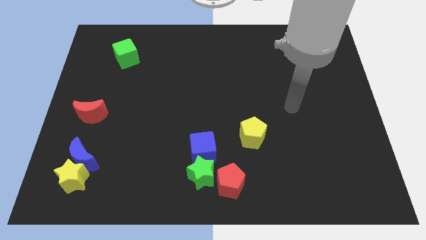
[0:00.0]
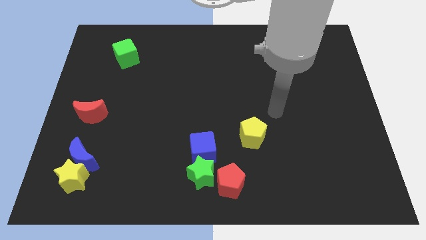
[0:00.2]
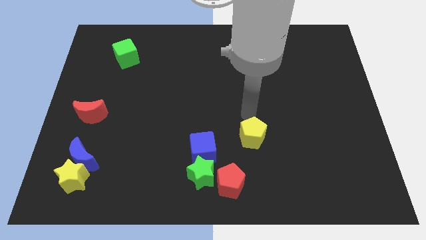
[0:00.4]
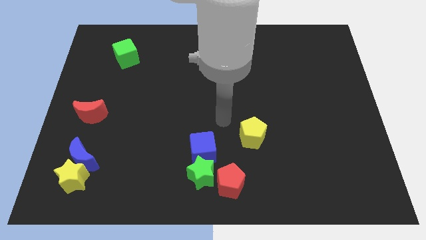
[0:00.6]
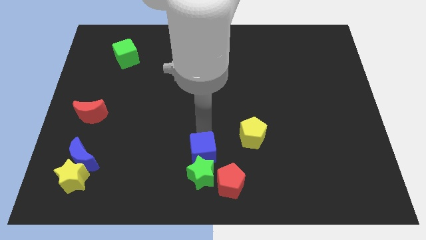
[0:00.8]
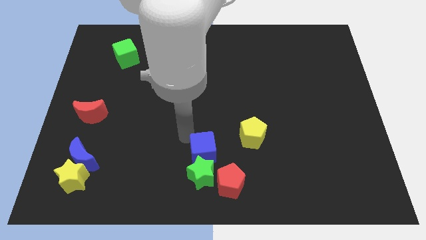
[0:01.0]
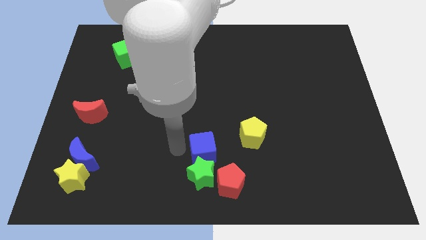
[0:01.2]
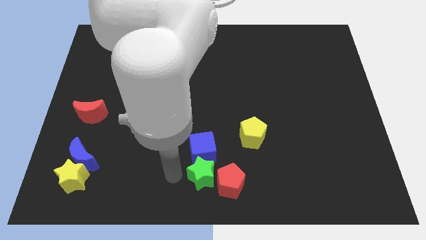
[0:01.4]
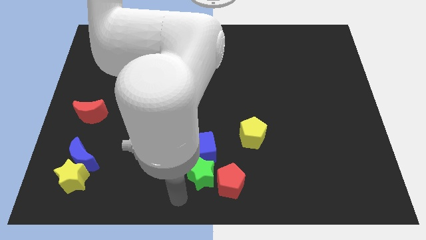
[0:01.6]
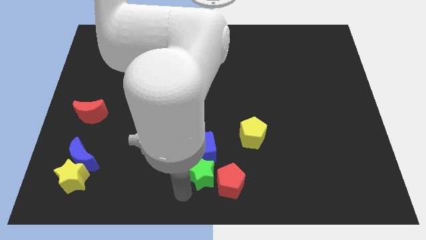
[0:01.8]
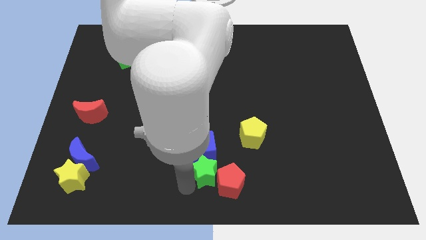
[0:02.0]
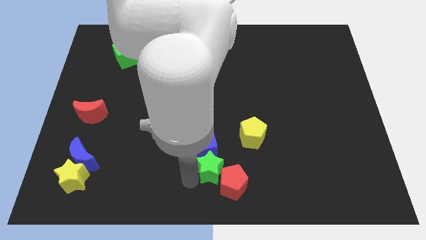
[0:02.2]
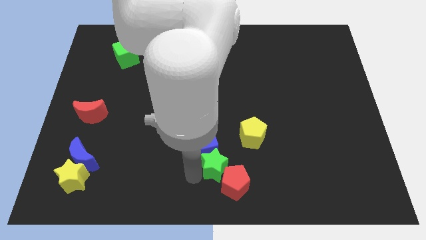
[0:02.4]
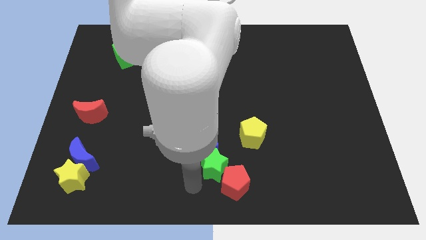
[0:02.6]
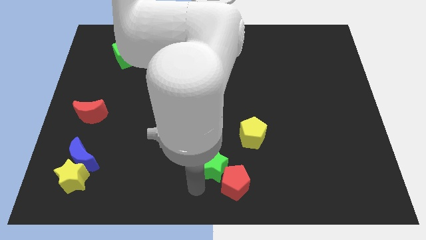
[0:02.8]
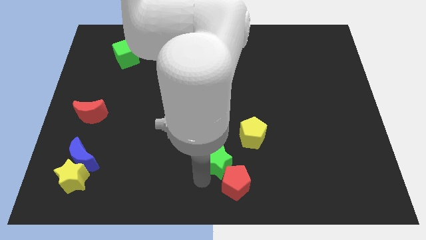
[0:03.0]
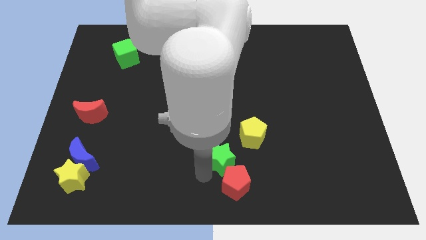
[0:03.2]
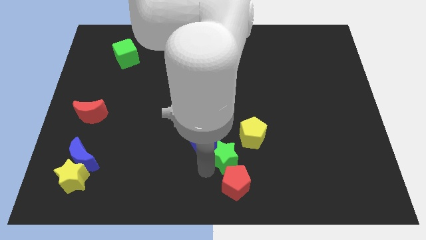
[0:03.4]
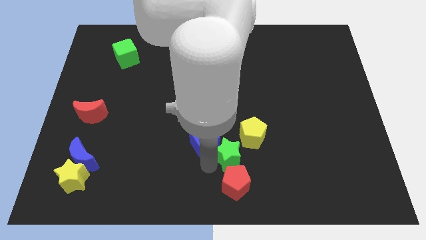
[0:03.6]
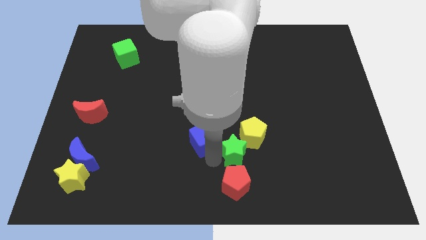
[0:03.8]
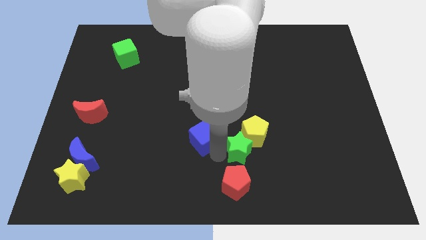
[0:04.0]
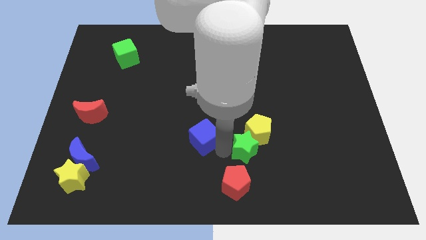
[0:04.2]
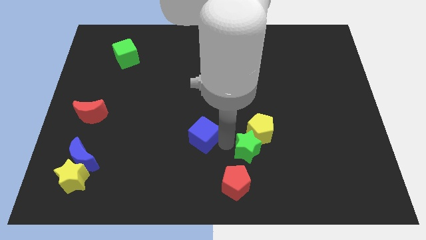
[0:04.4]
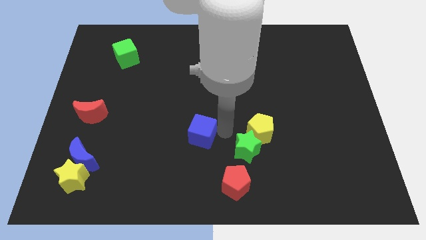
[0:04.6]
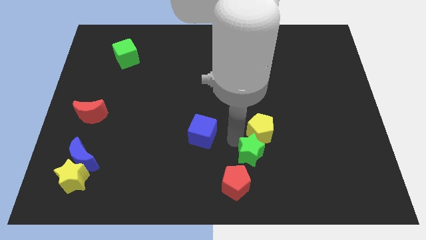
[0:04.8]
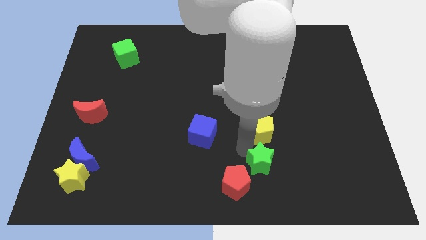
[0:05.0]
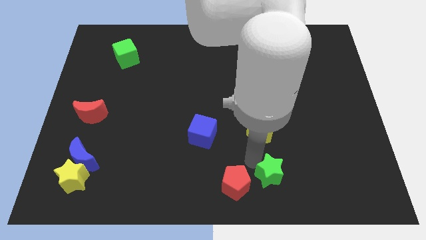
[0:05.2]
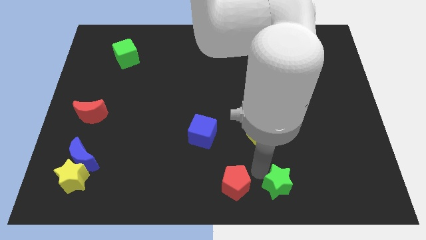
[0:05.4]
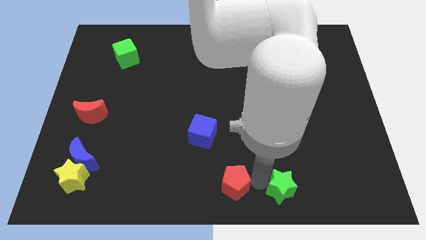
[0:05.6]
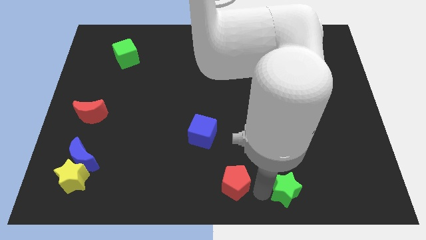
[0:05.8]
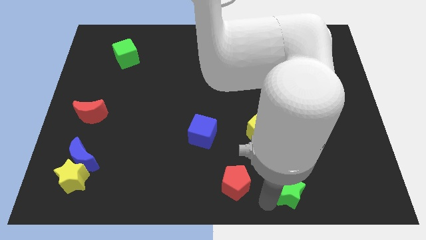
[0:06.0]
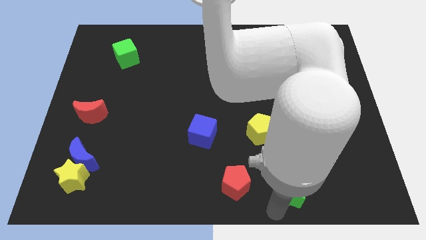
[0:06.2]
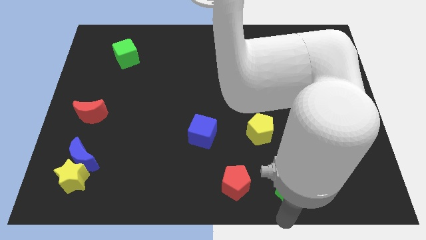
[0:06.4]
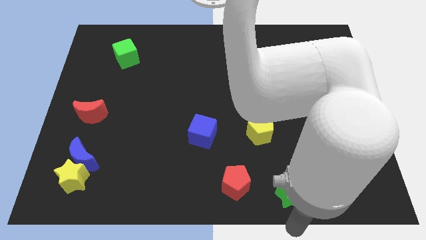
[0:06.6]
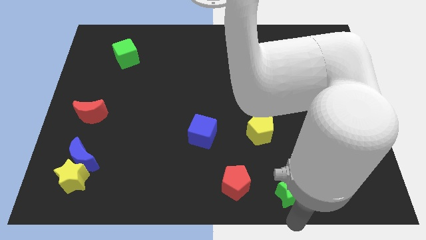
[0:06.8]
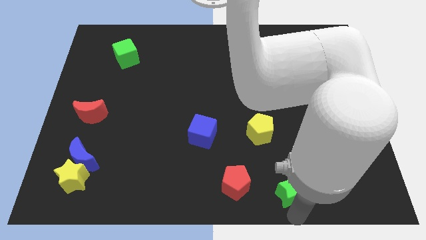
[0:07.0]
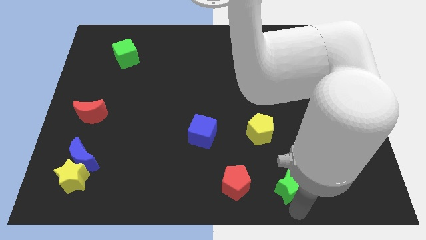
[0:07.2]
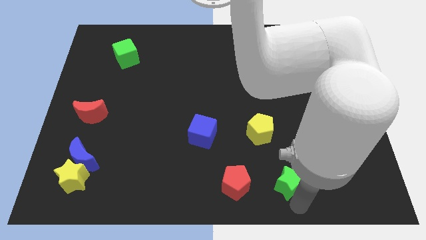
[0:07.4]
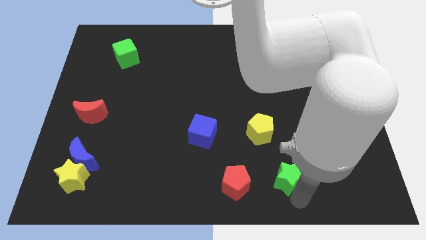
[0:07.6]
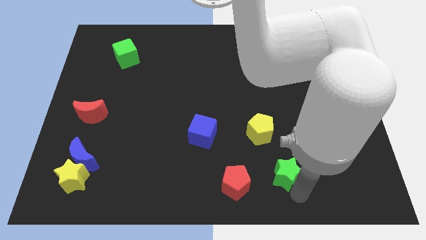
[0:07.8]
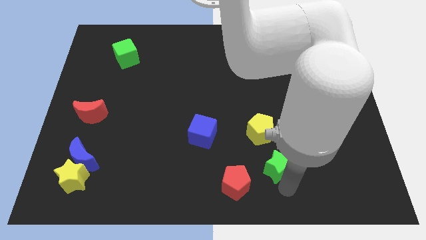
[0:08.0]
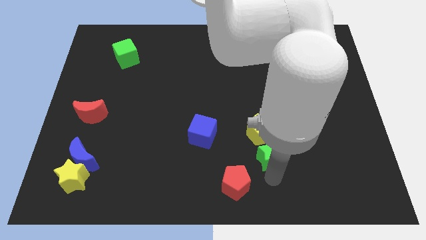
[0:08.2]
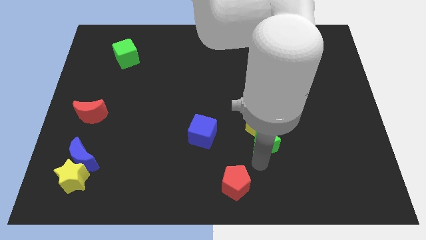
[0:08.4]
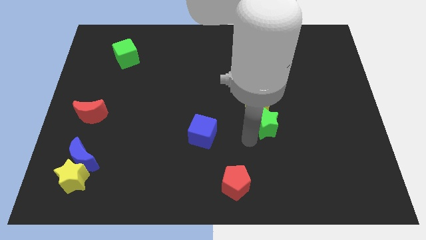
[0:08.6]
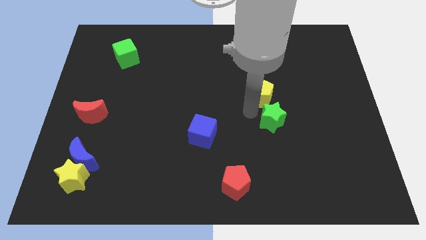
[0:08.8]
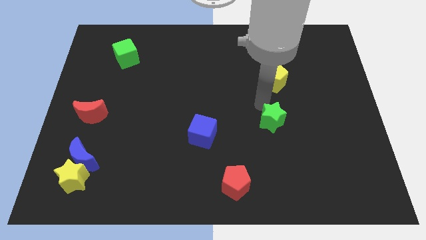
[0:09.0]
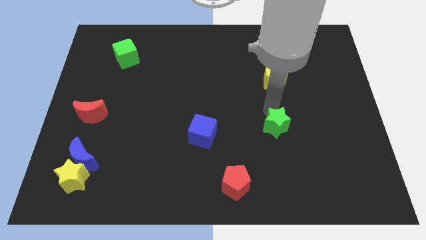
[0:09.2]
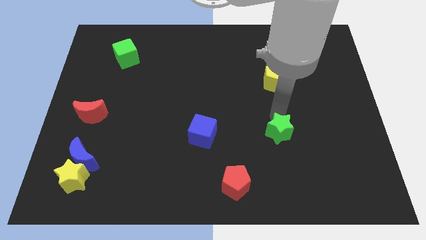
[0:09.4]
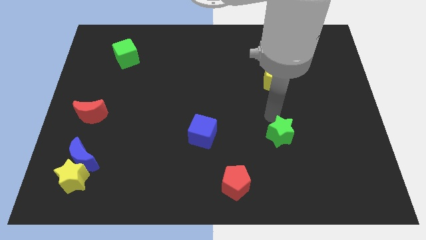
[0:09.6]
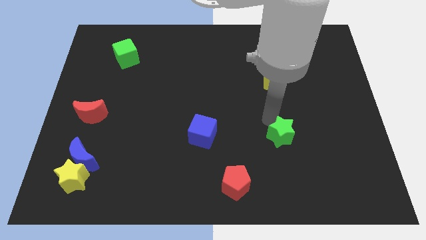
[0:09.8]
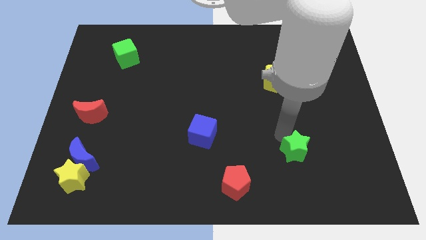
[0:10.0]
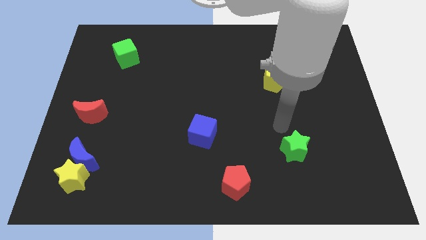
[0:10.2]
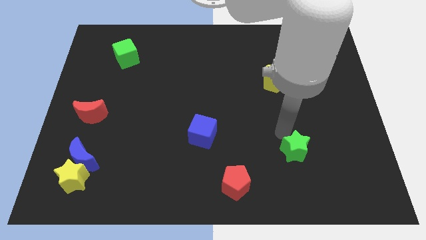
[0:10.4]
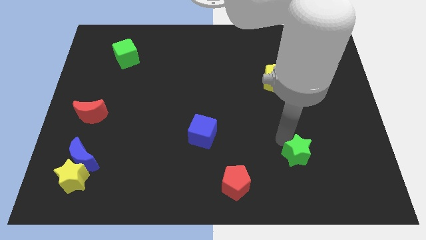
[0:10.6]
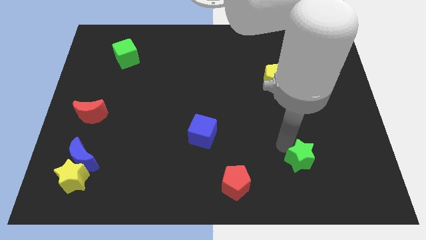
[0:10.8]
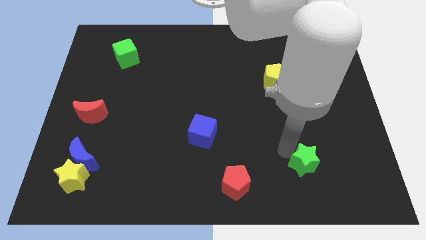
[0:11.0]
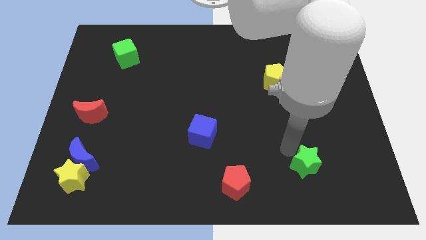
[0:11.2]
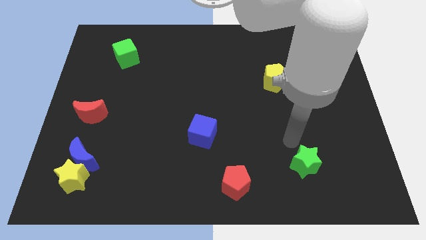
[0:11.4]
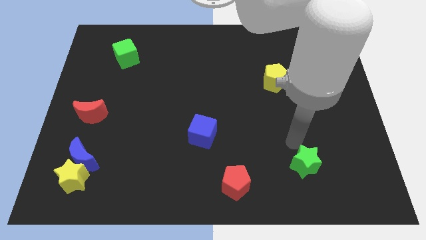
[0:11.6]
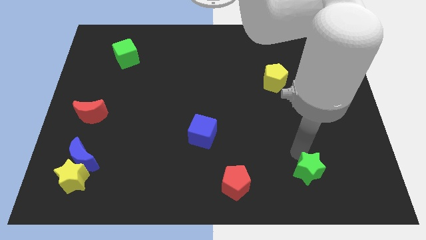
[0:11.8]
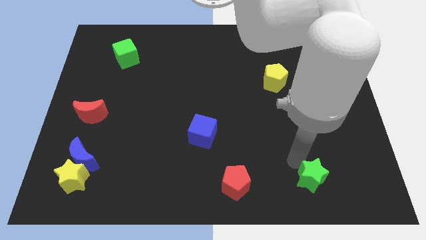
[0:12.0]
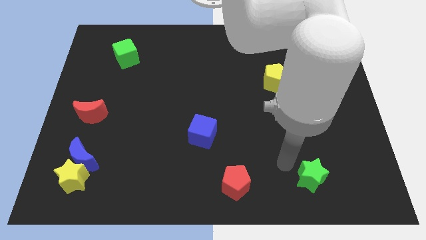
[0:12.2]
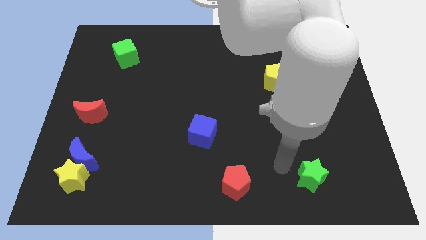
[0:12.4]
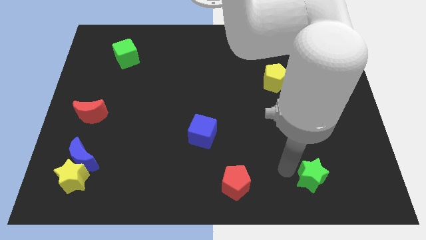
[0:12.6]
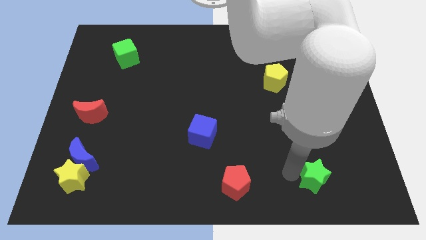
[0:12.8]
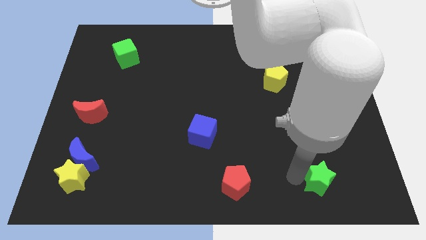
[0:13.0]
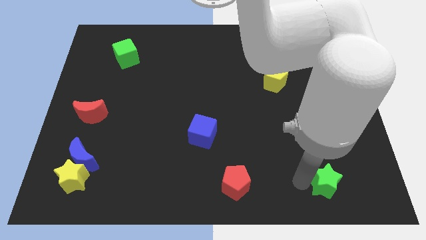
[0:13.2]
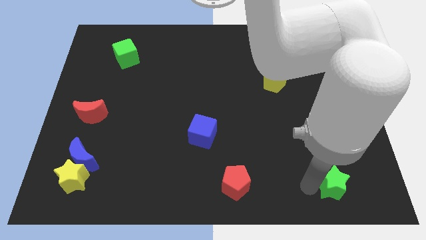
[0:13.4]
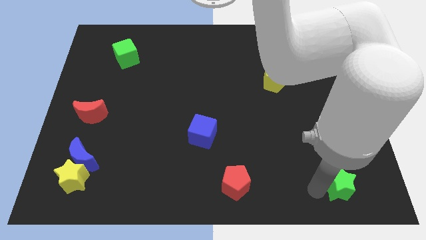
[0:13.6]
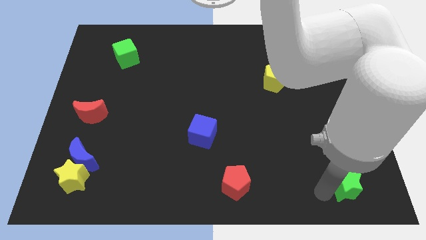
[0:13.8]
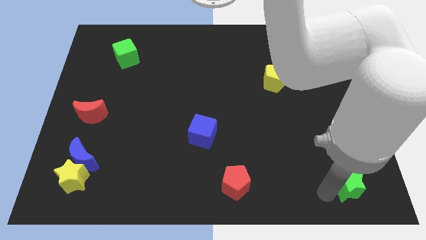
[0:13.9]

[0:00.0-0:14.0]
put the green star to the bottom right
